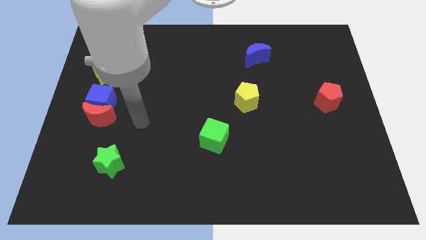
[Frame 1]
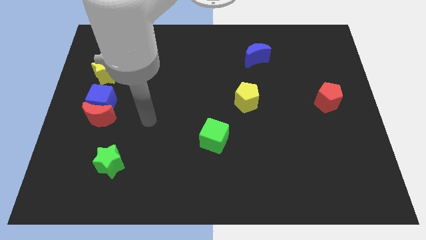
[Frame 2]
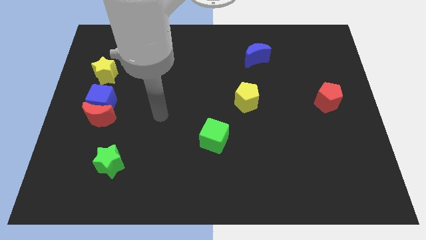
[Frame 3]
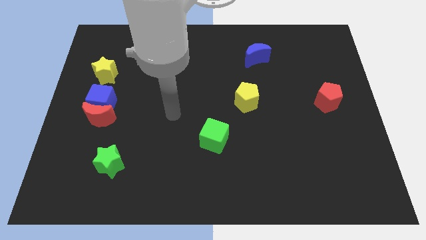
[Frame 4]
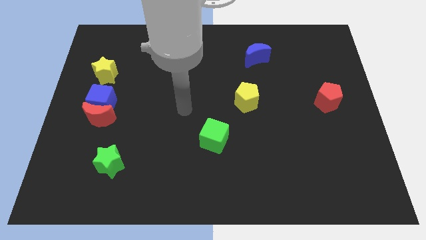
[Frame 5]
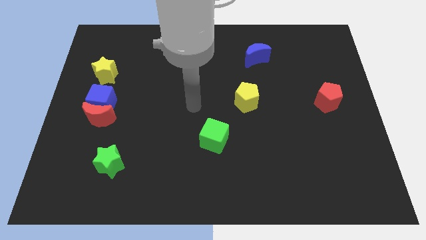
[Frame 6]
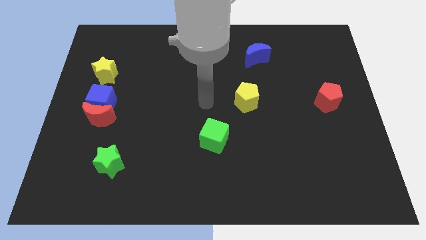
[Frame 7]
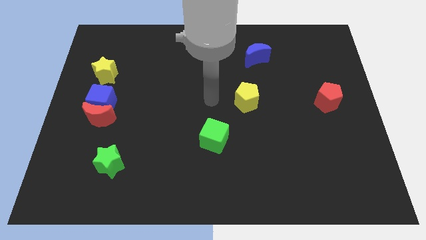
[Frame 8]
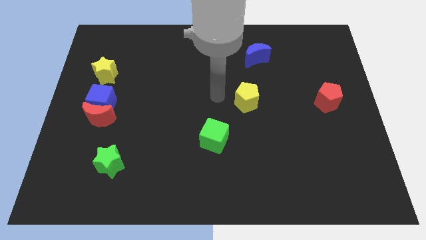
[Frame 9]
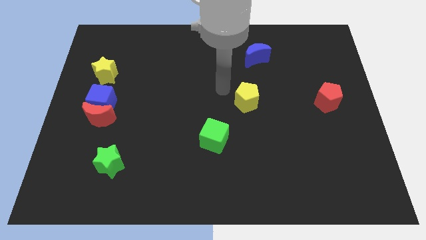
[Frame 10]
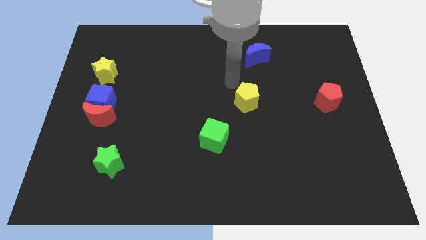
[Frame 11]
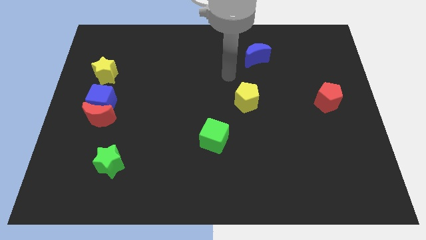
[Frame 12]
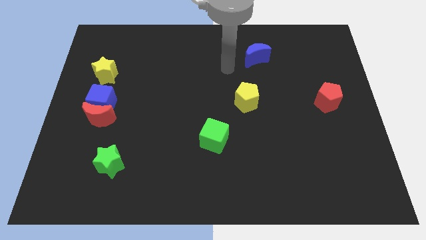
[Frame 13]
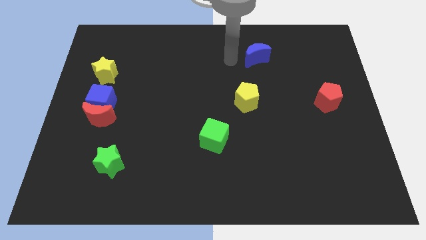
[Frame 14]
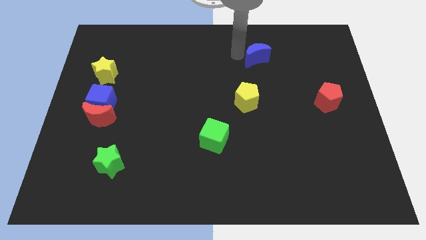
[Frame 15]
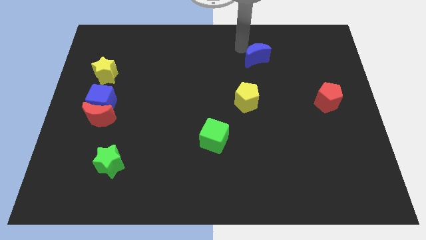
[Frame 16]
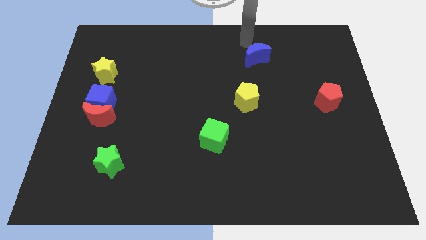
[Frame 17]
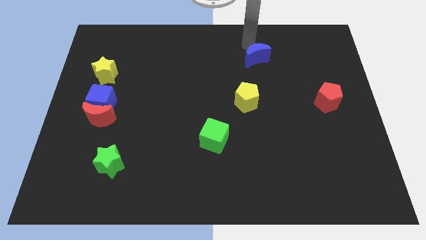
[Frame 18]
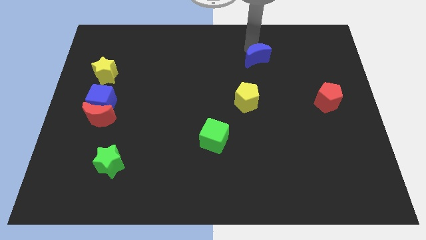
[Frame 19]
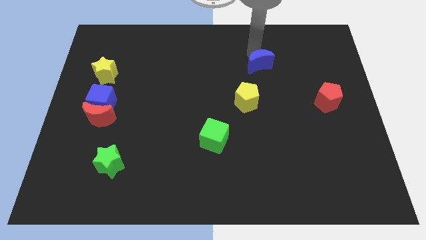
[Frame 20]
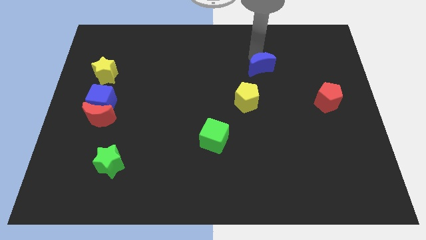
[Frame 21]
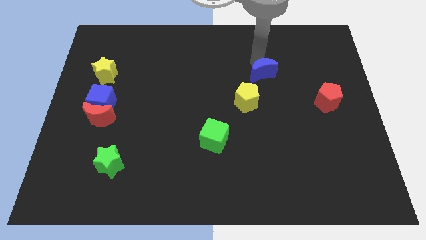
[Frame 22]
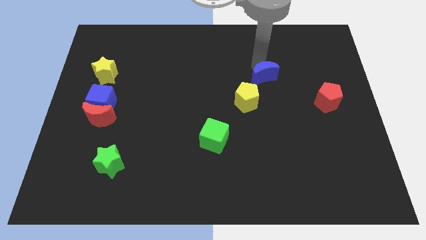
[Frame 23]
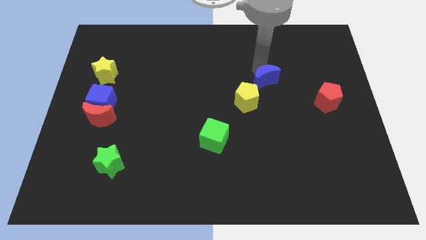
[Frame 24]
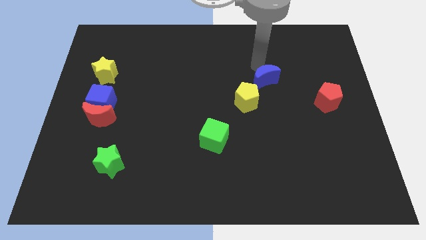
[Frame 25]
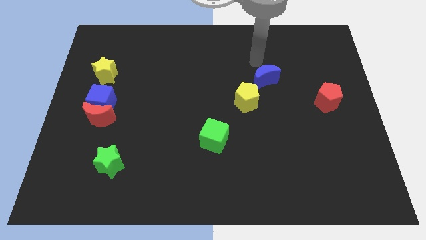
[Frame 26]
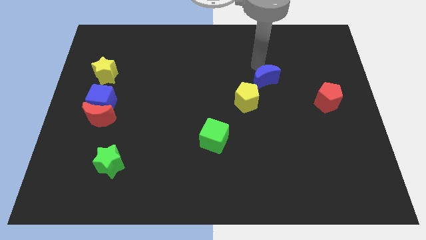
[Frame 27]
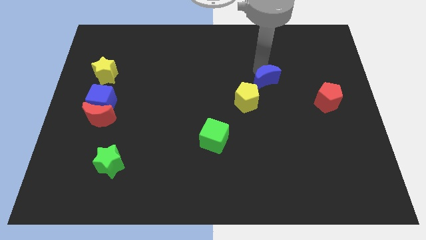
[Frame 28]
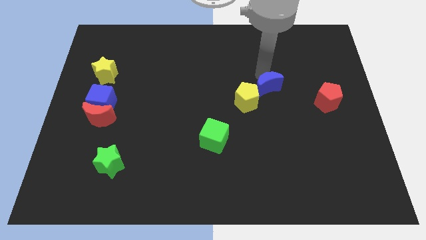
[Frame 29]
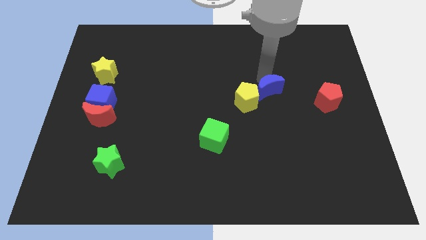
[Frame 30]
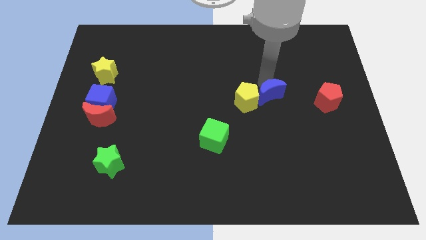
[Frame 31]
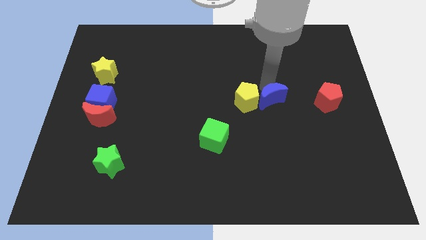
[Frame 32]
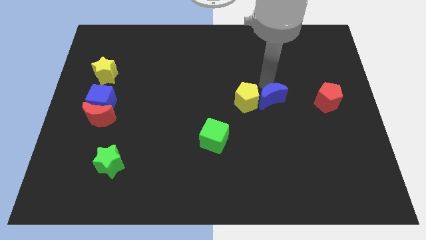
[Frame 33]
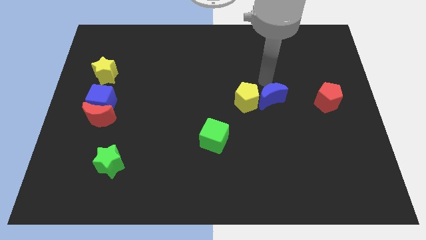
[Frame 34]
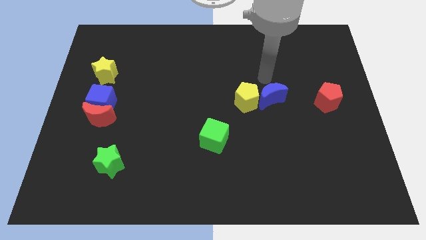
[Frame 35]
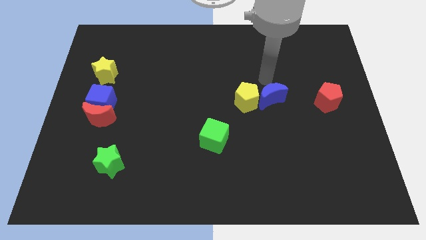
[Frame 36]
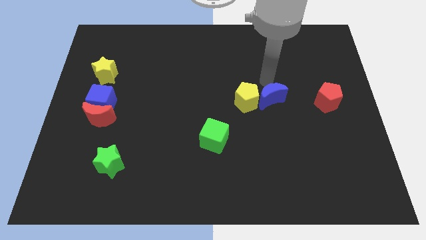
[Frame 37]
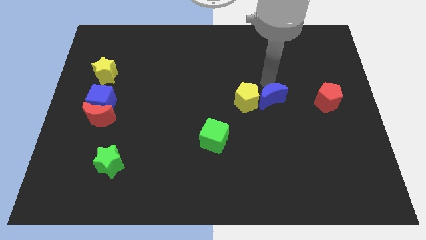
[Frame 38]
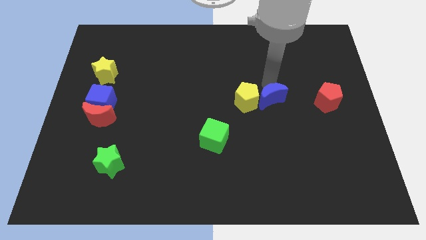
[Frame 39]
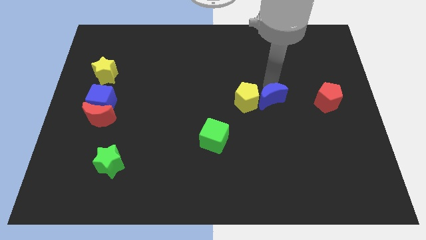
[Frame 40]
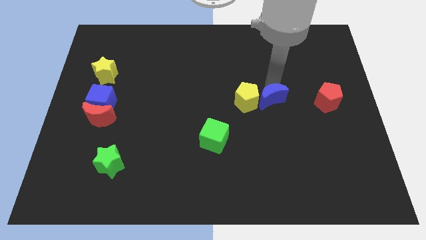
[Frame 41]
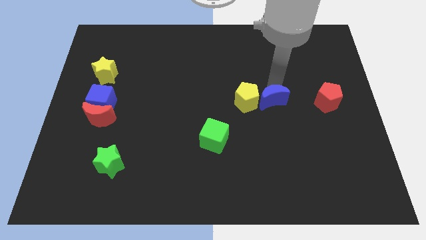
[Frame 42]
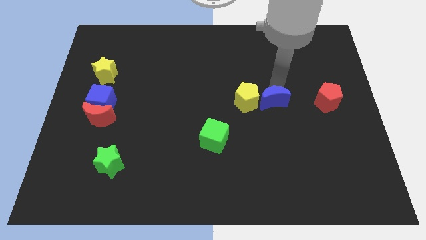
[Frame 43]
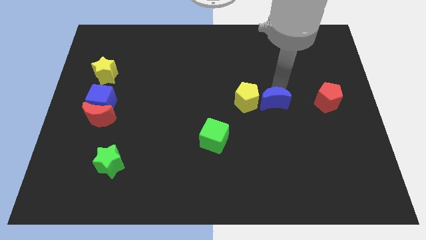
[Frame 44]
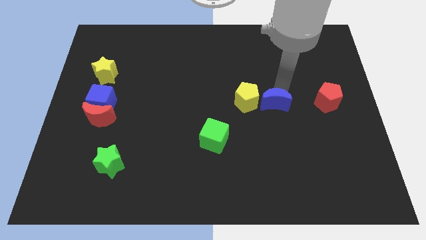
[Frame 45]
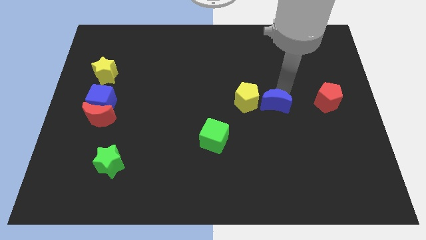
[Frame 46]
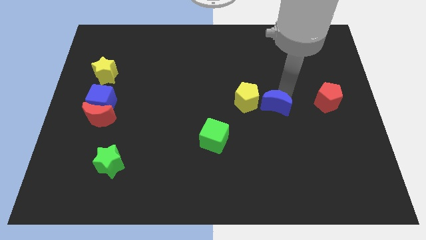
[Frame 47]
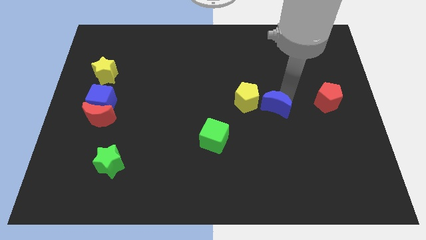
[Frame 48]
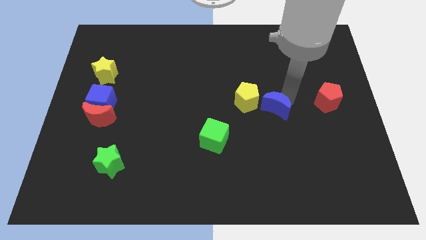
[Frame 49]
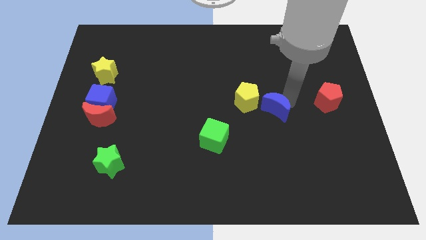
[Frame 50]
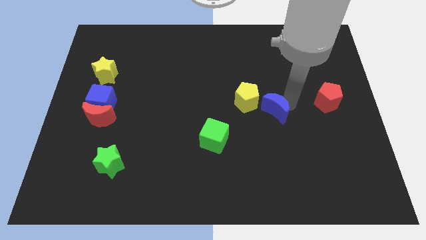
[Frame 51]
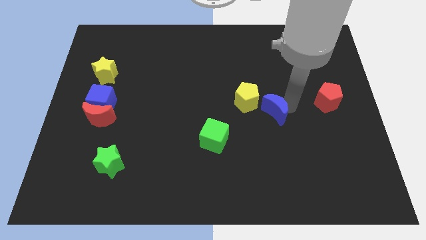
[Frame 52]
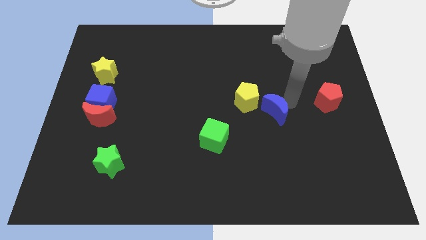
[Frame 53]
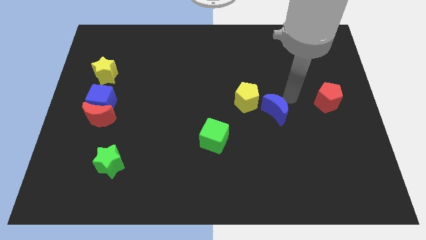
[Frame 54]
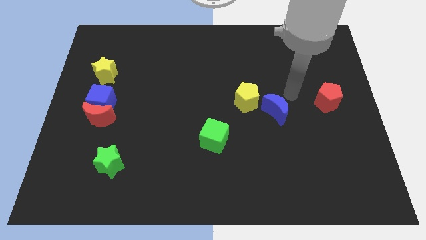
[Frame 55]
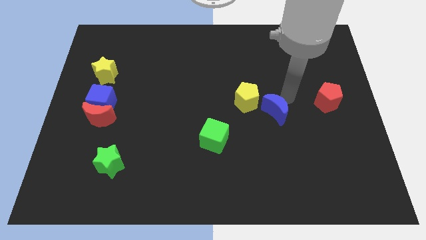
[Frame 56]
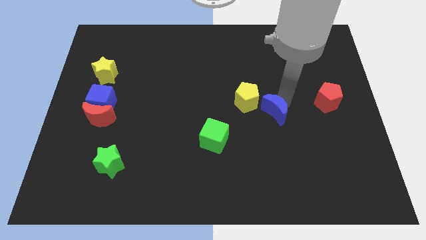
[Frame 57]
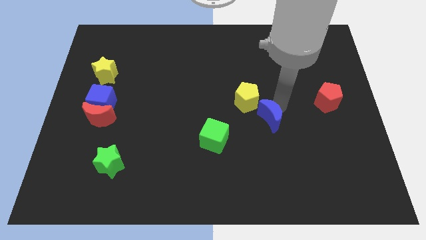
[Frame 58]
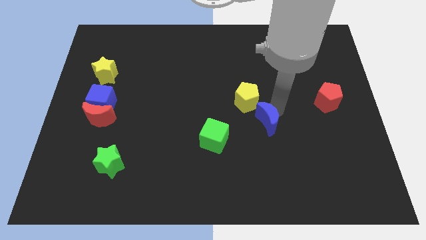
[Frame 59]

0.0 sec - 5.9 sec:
push the blue moon below the yellow pentagon

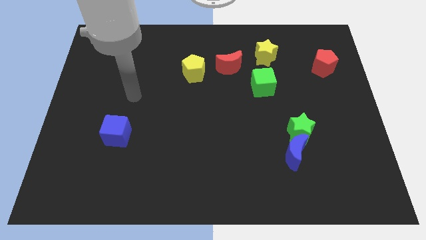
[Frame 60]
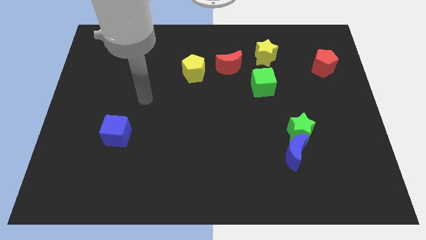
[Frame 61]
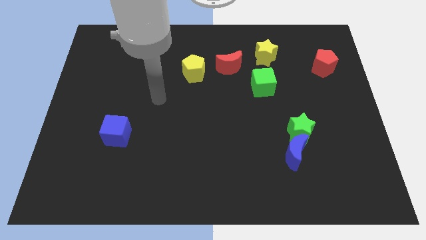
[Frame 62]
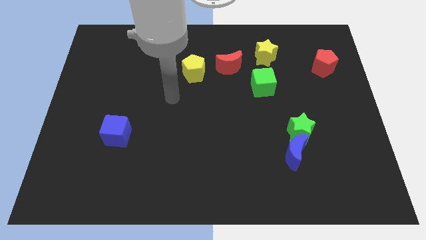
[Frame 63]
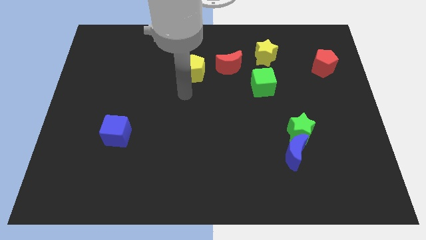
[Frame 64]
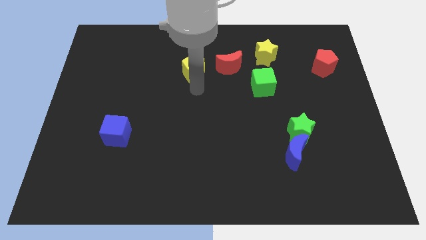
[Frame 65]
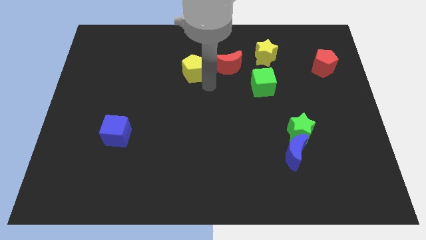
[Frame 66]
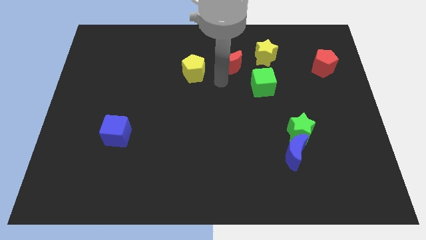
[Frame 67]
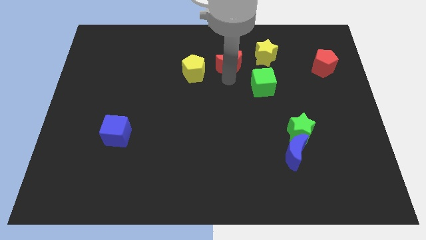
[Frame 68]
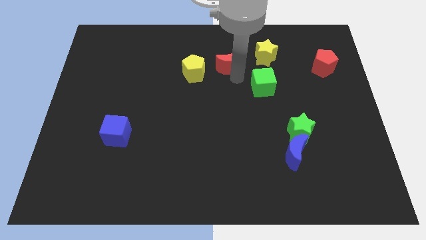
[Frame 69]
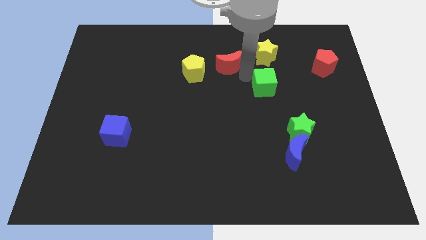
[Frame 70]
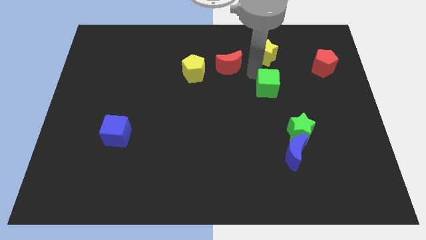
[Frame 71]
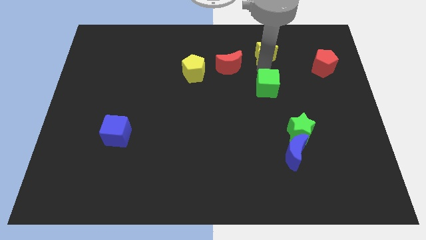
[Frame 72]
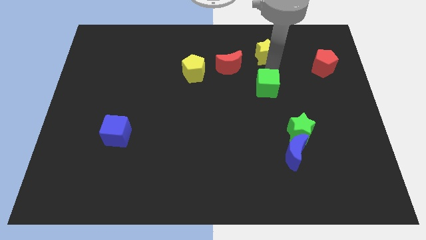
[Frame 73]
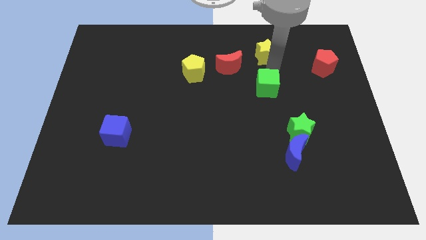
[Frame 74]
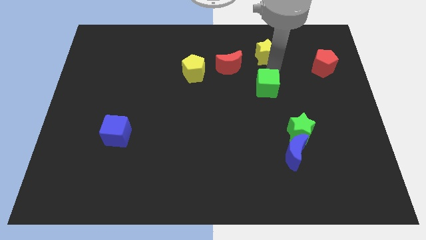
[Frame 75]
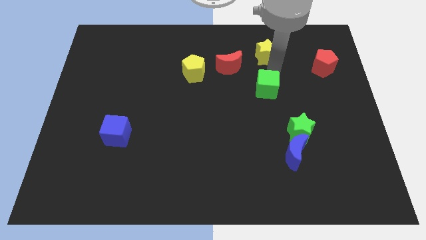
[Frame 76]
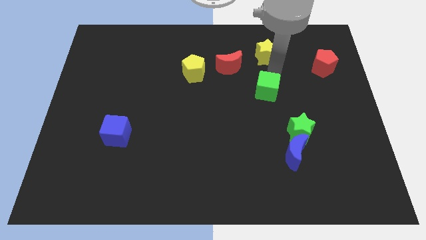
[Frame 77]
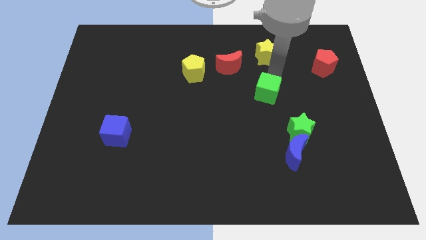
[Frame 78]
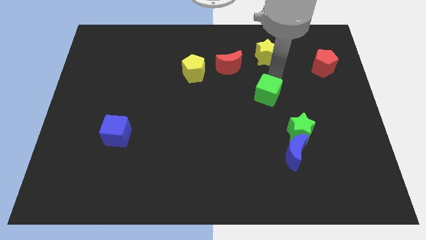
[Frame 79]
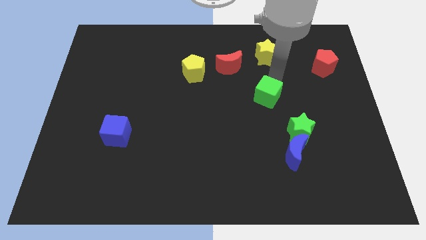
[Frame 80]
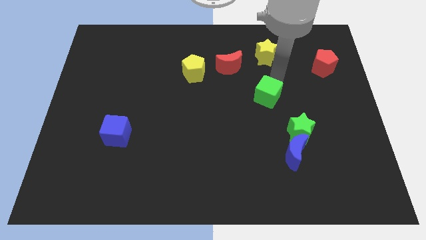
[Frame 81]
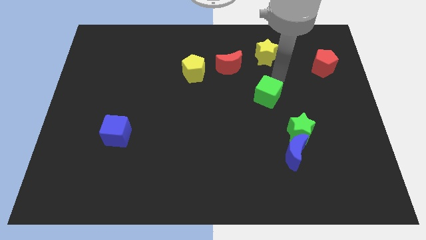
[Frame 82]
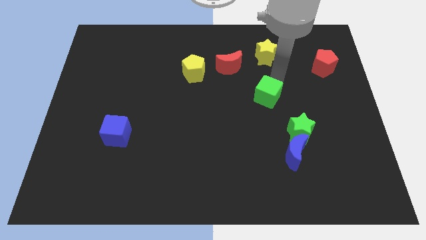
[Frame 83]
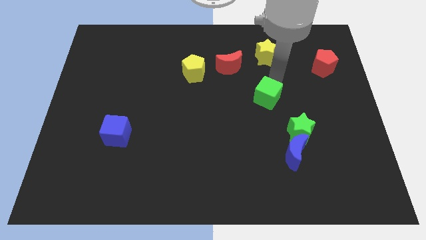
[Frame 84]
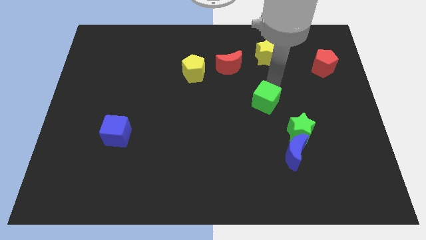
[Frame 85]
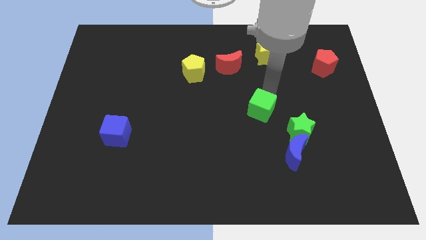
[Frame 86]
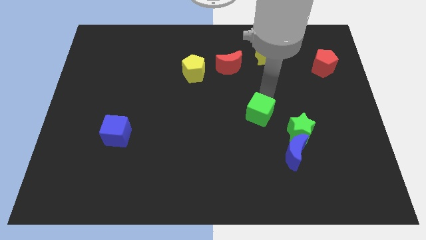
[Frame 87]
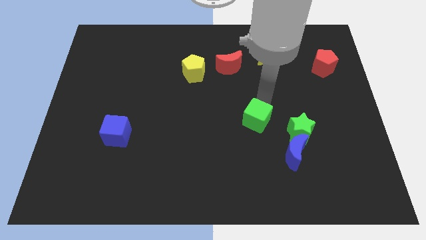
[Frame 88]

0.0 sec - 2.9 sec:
slide the green cube to the left of the green star
